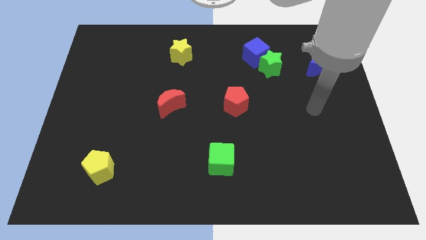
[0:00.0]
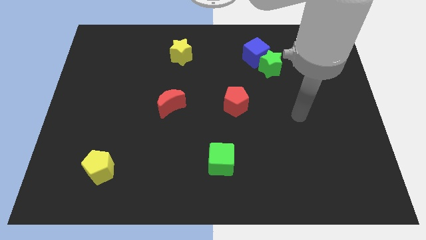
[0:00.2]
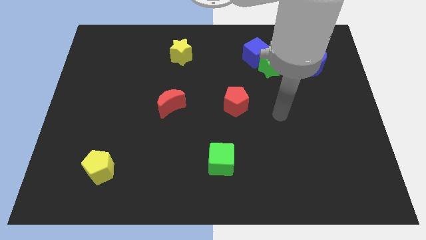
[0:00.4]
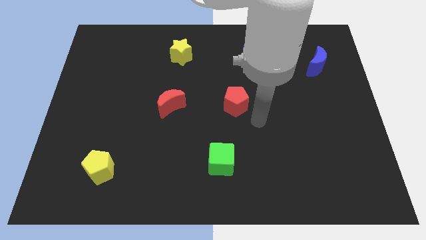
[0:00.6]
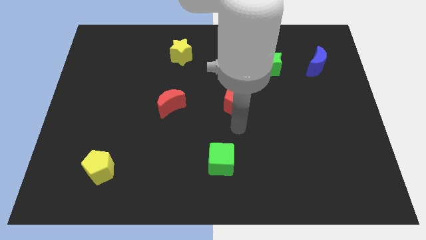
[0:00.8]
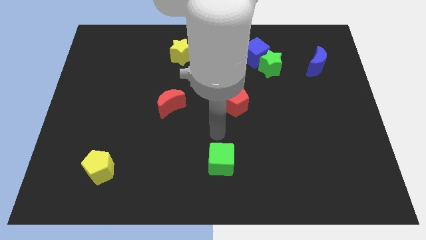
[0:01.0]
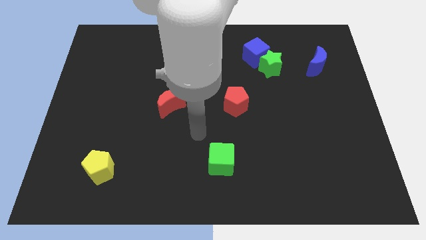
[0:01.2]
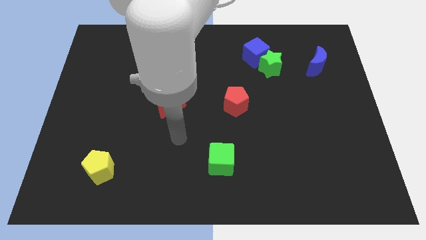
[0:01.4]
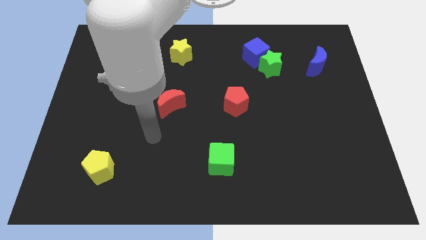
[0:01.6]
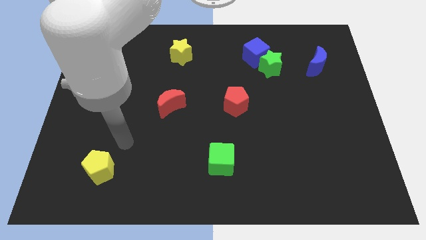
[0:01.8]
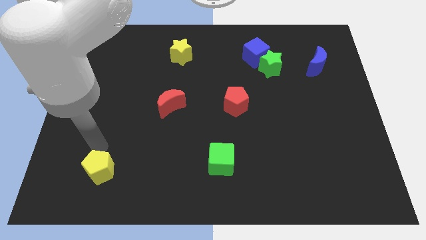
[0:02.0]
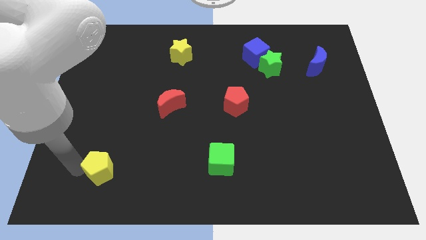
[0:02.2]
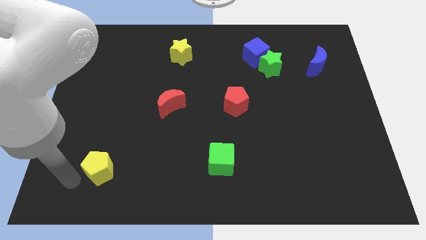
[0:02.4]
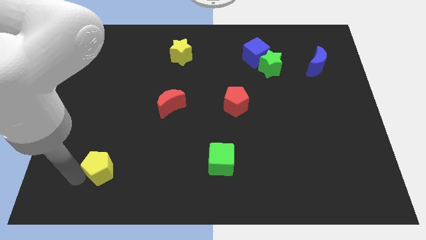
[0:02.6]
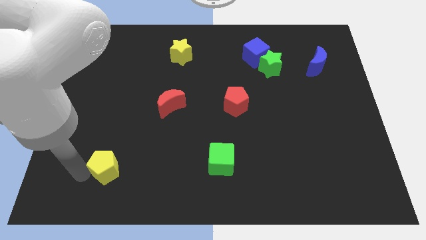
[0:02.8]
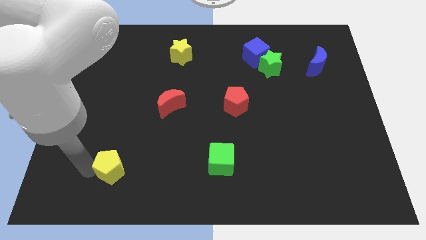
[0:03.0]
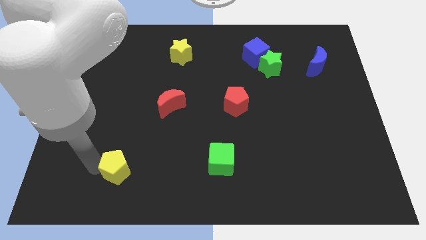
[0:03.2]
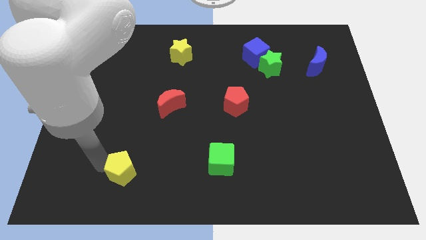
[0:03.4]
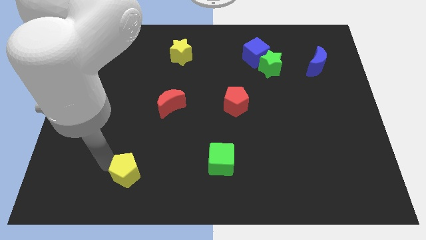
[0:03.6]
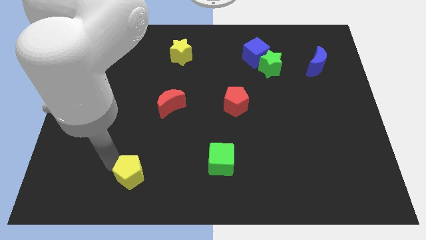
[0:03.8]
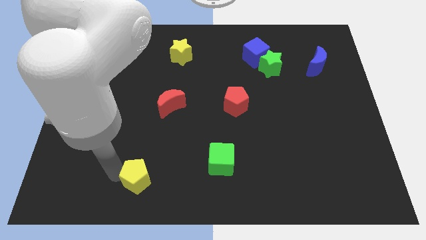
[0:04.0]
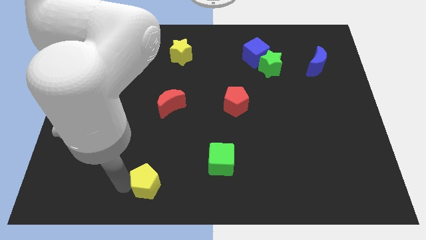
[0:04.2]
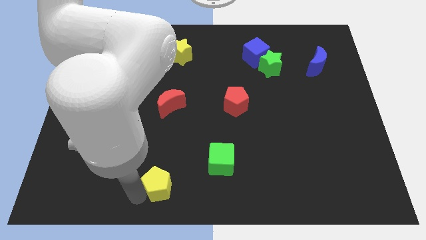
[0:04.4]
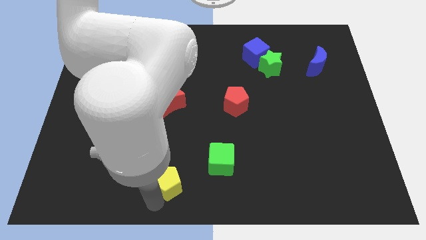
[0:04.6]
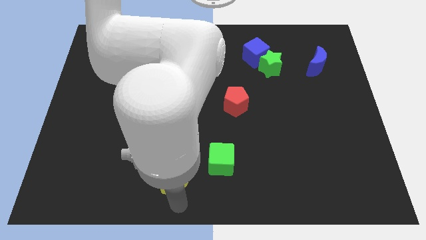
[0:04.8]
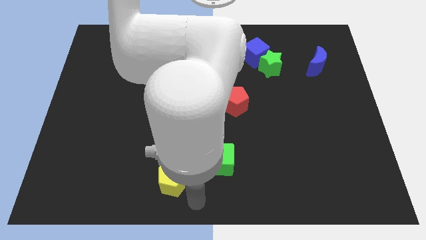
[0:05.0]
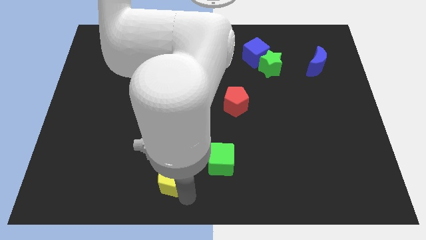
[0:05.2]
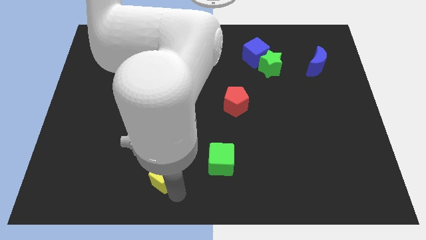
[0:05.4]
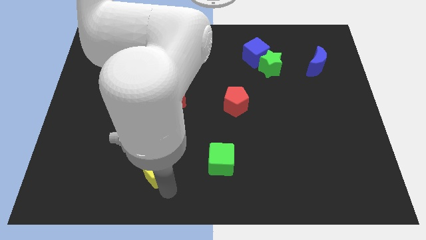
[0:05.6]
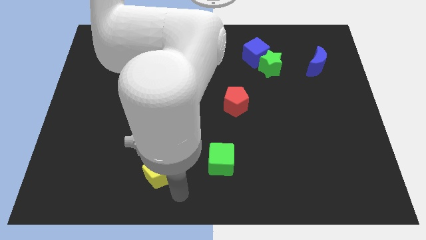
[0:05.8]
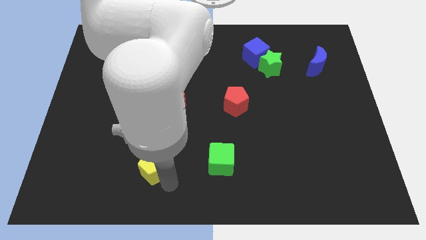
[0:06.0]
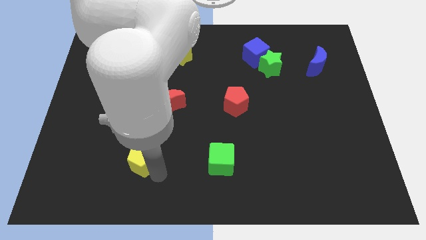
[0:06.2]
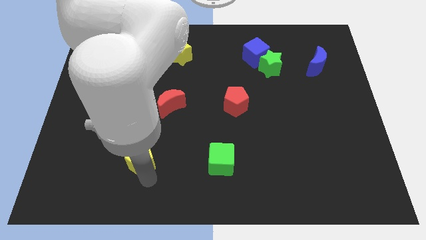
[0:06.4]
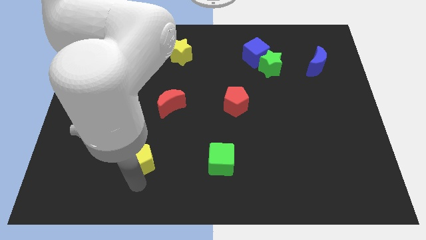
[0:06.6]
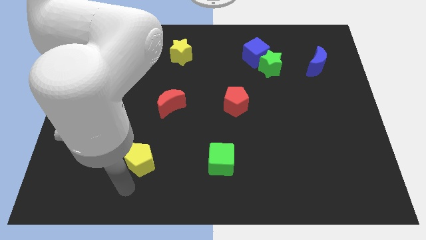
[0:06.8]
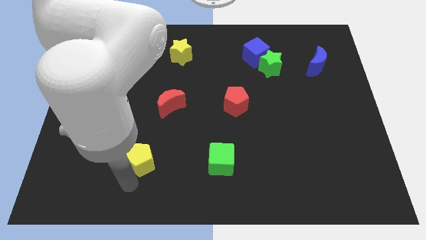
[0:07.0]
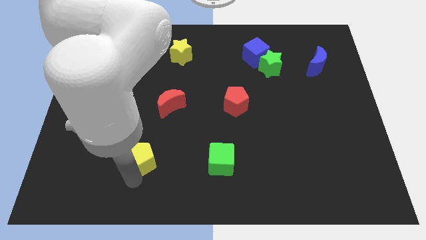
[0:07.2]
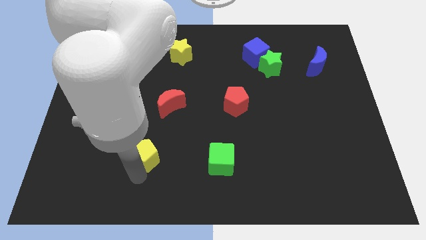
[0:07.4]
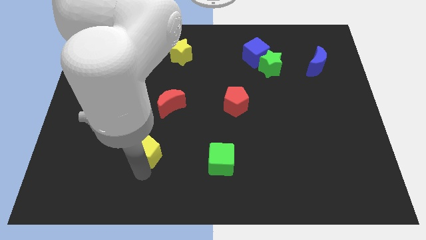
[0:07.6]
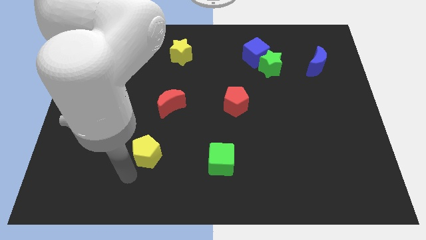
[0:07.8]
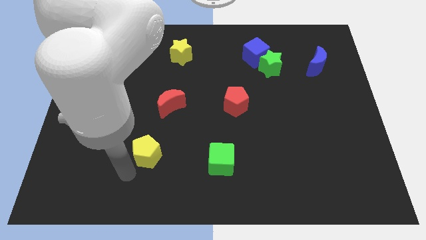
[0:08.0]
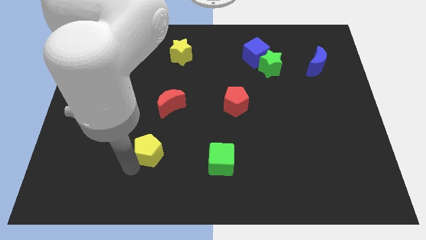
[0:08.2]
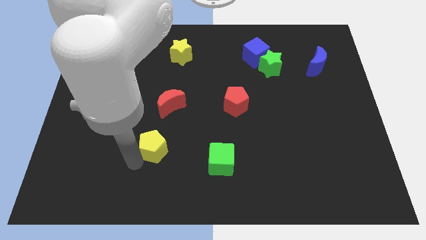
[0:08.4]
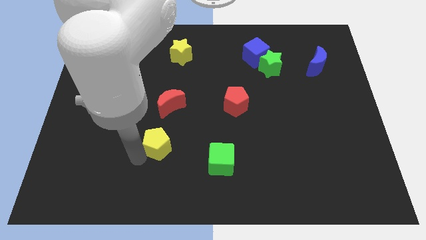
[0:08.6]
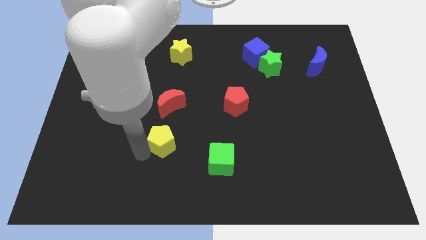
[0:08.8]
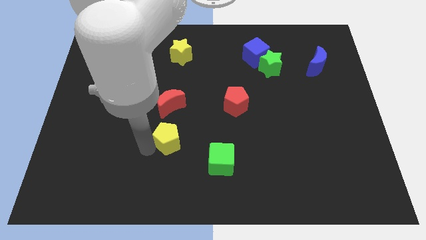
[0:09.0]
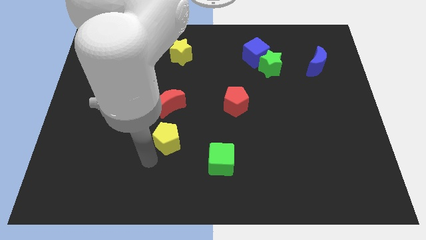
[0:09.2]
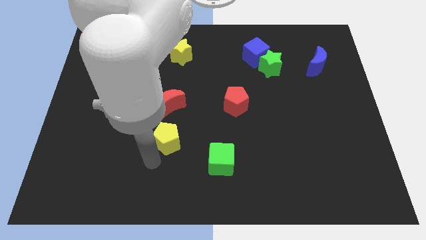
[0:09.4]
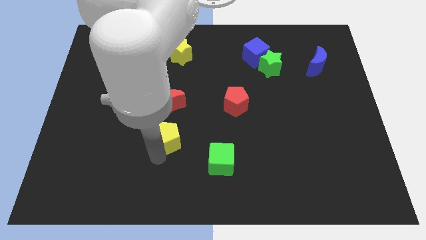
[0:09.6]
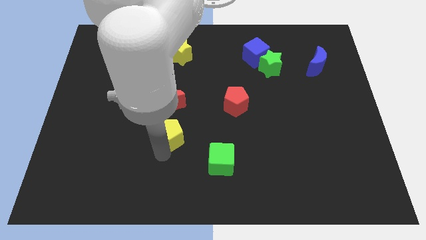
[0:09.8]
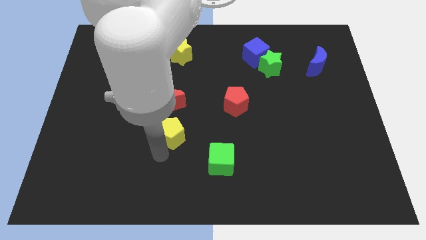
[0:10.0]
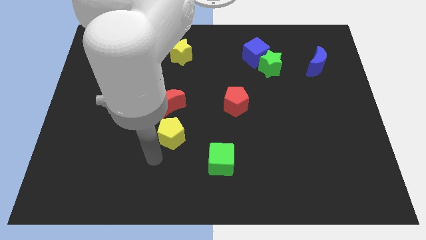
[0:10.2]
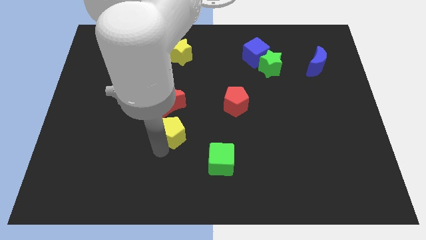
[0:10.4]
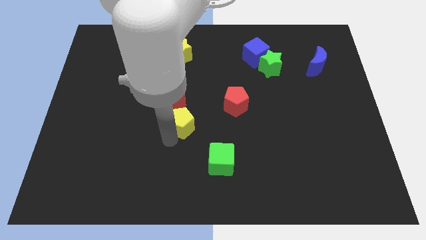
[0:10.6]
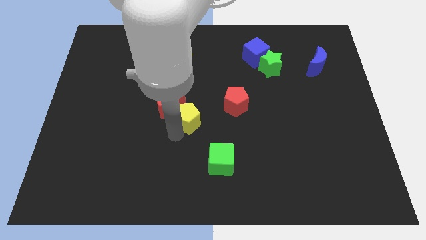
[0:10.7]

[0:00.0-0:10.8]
slide the yellow pentagon upwards and then to the right

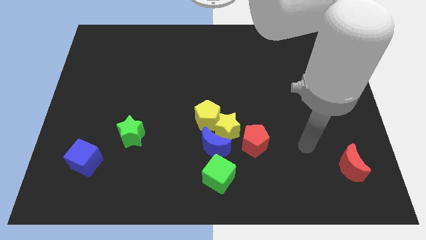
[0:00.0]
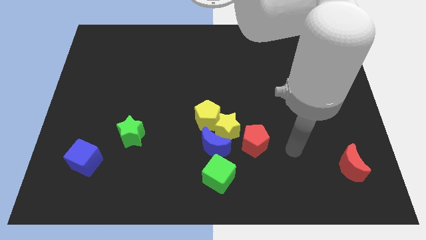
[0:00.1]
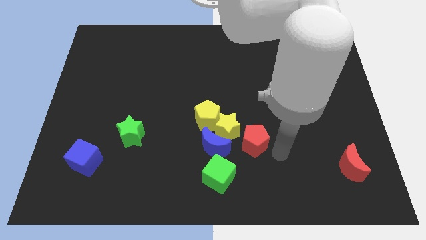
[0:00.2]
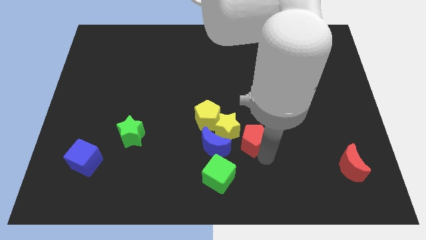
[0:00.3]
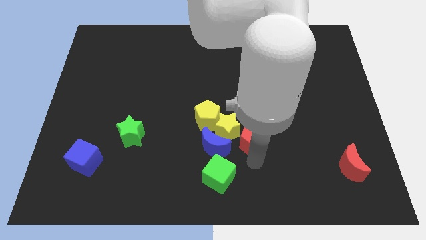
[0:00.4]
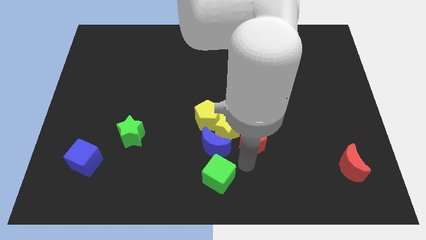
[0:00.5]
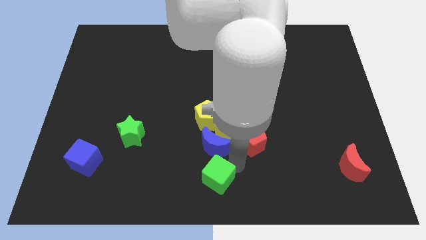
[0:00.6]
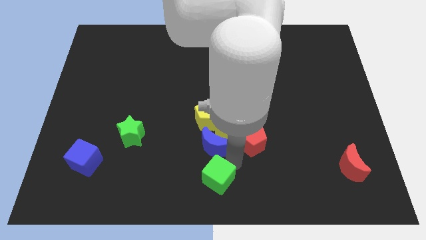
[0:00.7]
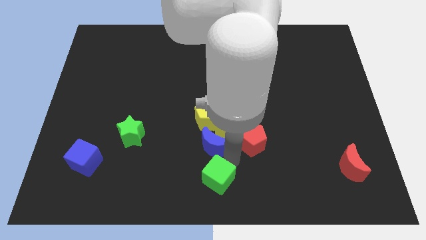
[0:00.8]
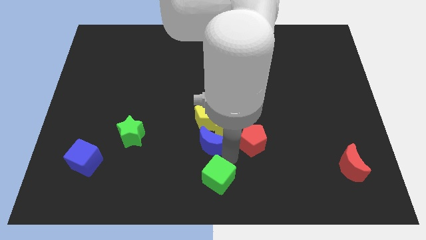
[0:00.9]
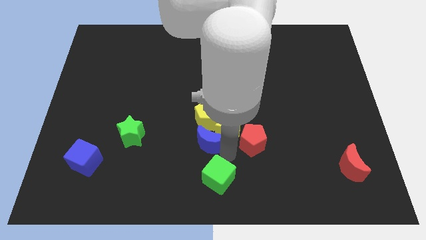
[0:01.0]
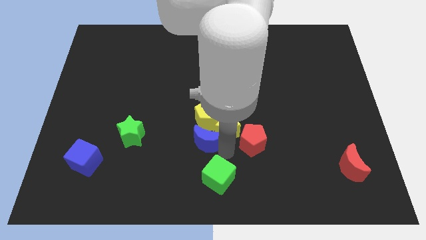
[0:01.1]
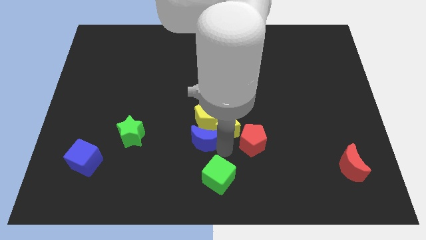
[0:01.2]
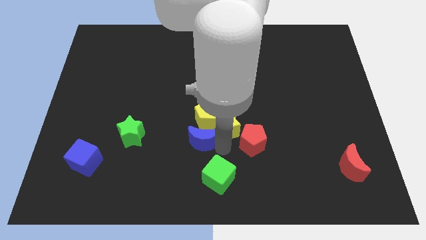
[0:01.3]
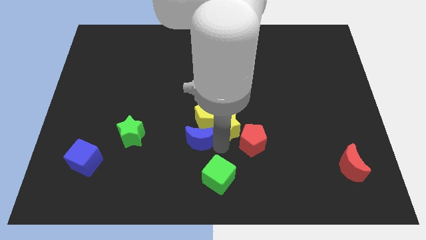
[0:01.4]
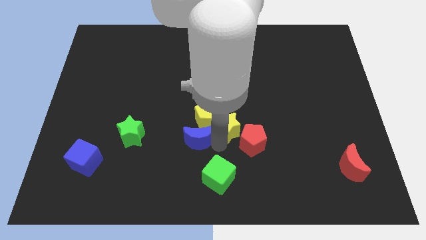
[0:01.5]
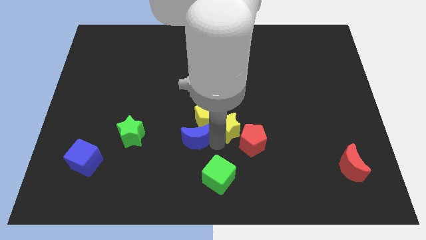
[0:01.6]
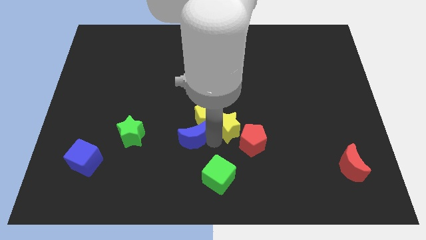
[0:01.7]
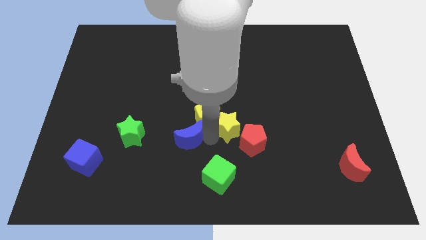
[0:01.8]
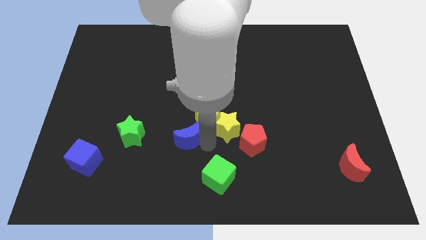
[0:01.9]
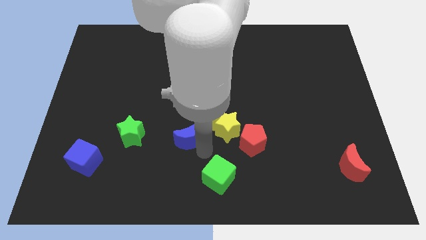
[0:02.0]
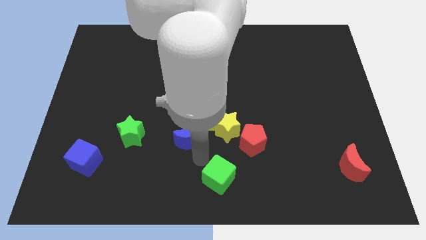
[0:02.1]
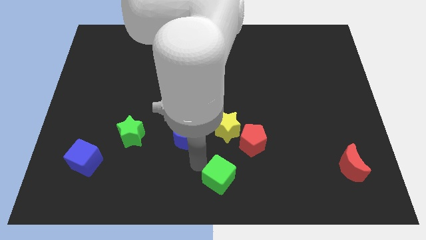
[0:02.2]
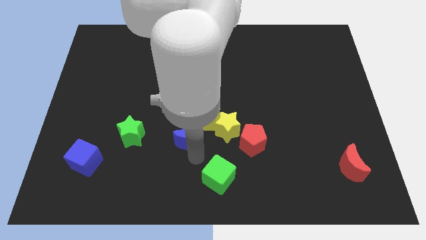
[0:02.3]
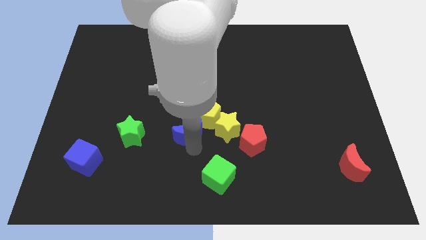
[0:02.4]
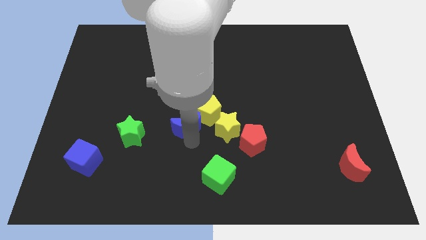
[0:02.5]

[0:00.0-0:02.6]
push the blue moon up and then to the left slightly
